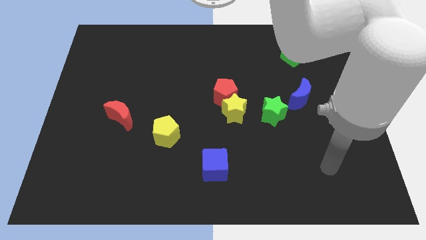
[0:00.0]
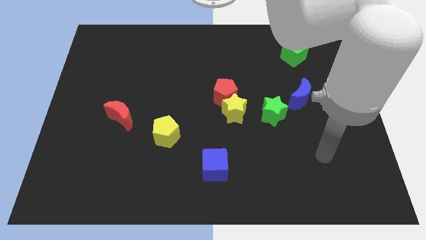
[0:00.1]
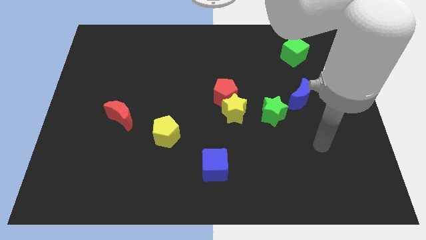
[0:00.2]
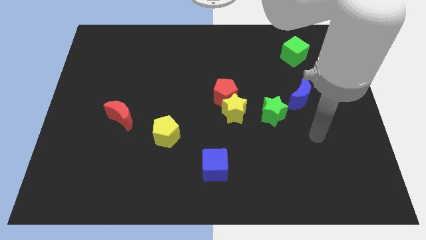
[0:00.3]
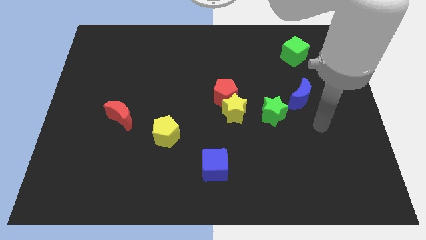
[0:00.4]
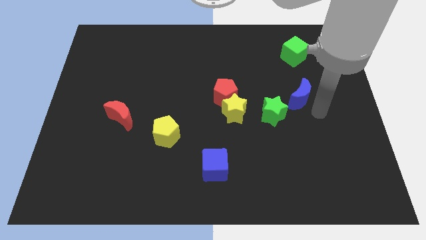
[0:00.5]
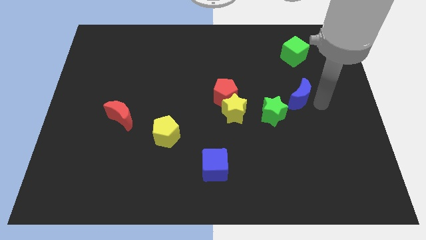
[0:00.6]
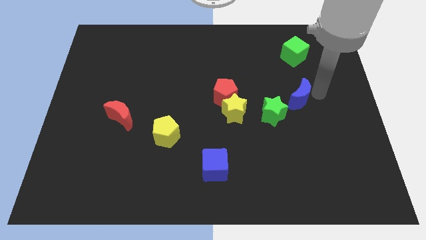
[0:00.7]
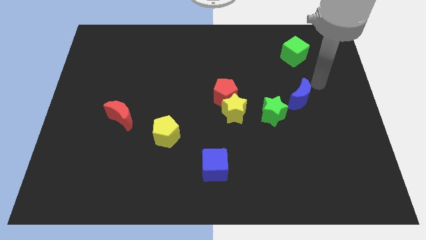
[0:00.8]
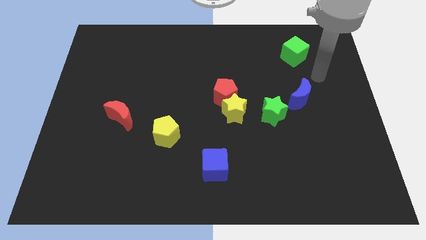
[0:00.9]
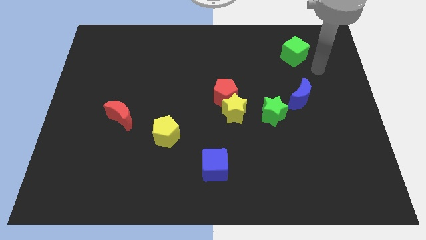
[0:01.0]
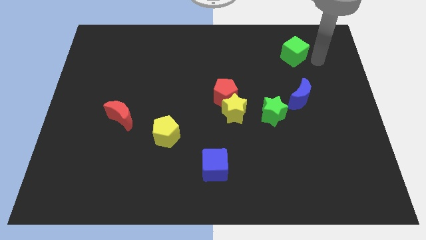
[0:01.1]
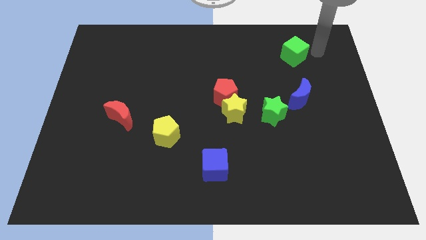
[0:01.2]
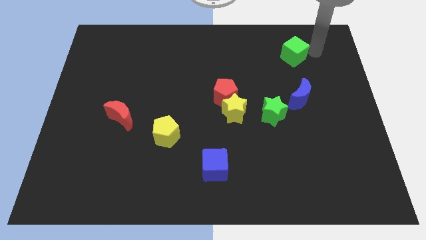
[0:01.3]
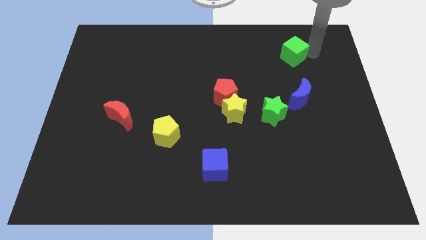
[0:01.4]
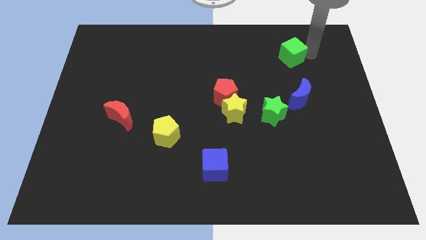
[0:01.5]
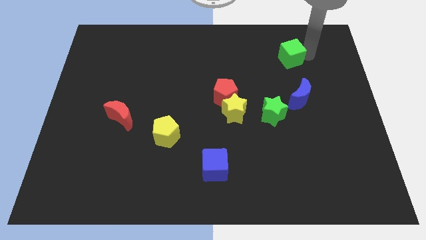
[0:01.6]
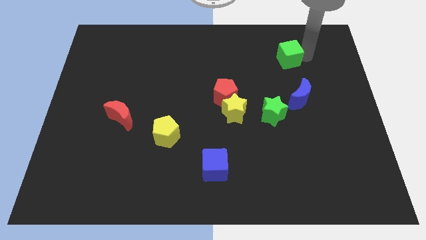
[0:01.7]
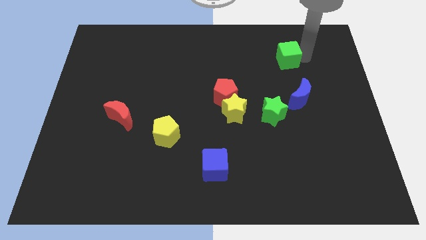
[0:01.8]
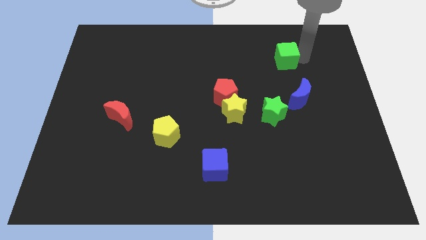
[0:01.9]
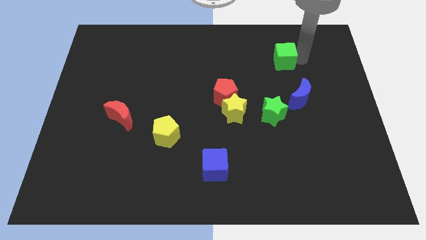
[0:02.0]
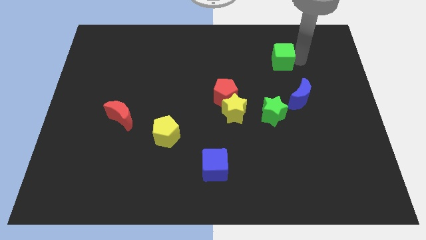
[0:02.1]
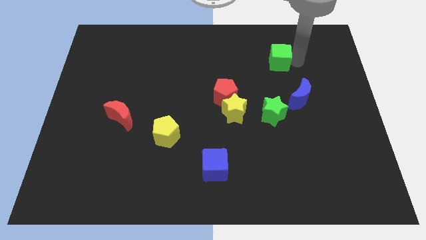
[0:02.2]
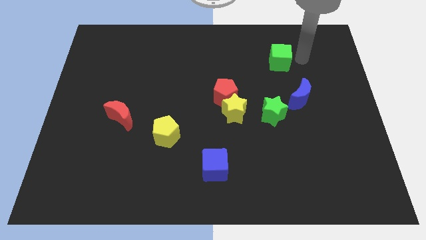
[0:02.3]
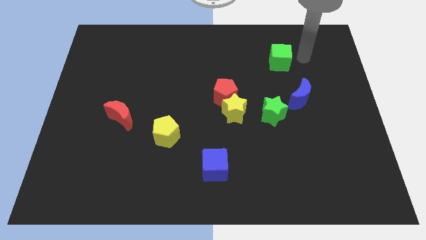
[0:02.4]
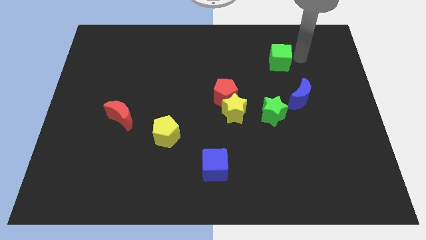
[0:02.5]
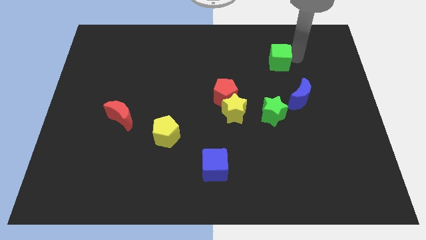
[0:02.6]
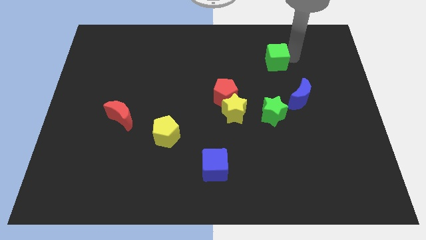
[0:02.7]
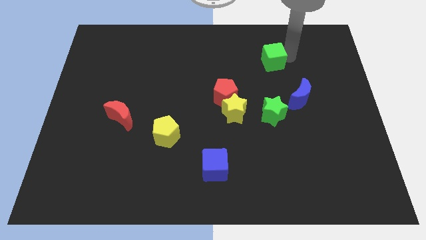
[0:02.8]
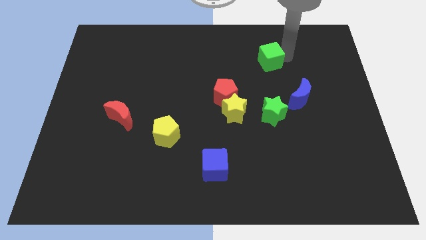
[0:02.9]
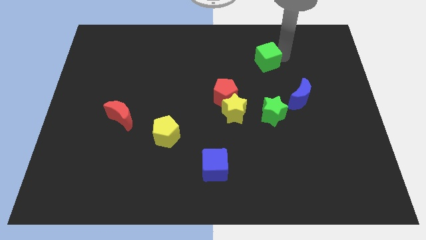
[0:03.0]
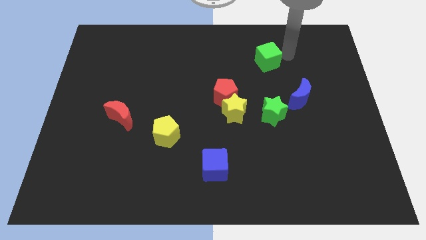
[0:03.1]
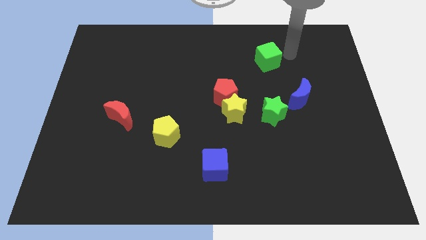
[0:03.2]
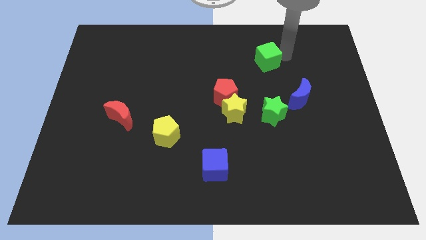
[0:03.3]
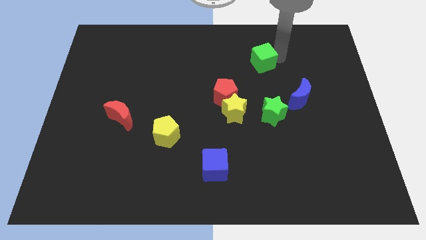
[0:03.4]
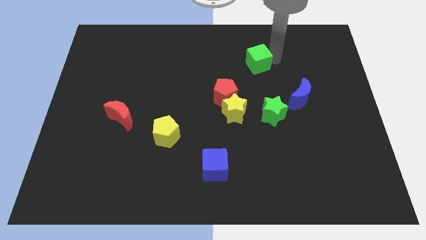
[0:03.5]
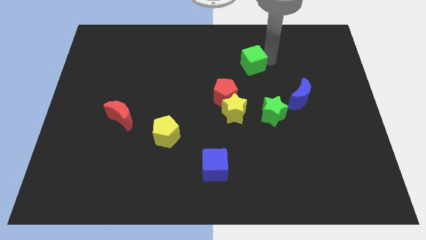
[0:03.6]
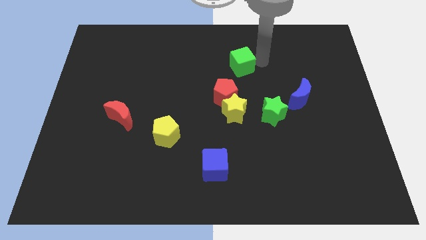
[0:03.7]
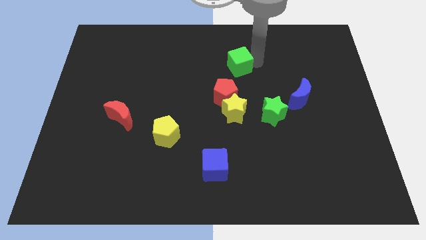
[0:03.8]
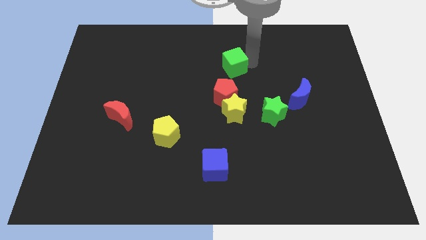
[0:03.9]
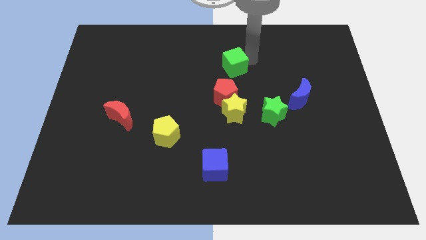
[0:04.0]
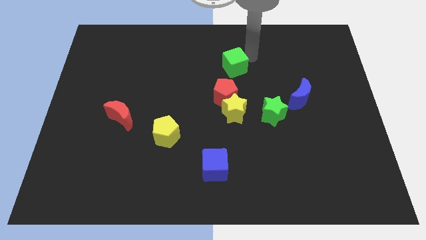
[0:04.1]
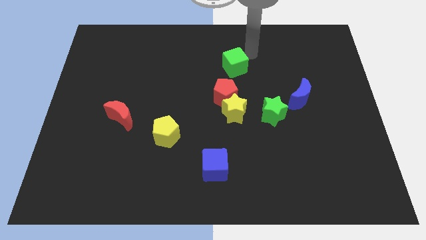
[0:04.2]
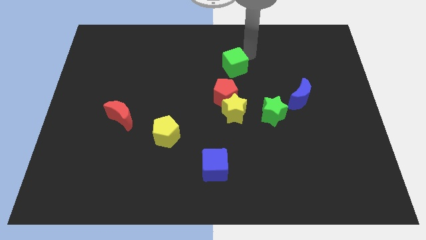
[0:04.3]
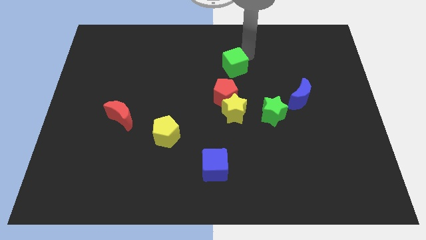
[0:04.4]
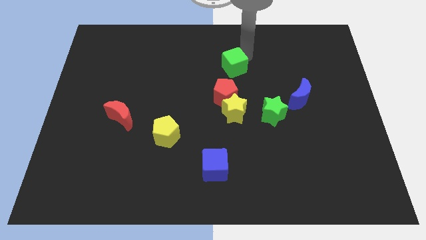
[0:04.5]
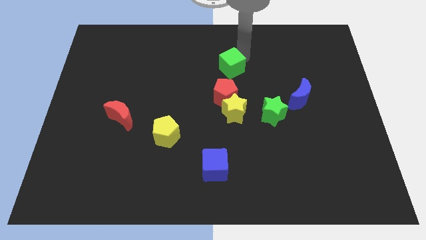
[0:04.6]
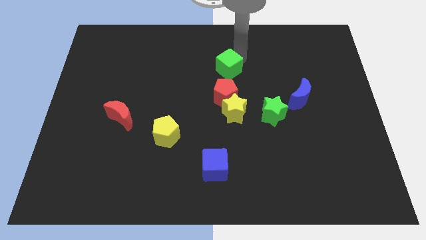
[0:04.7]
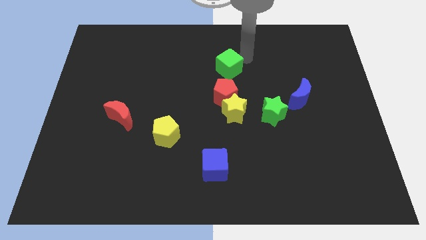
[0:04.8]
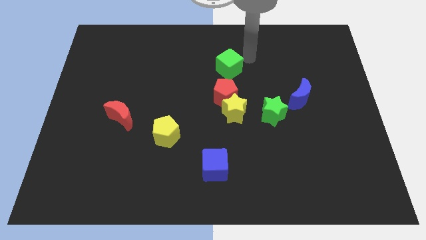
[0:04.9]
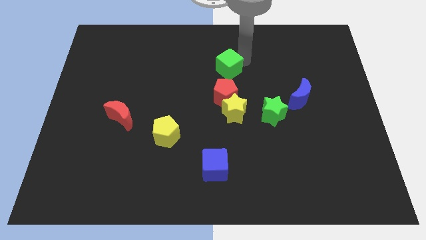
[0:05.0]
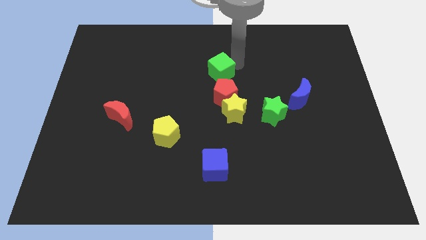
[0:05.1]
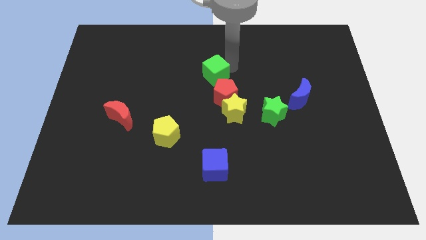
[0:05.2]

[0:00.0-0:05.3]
push the green cube to the top left of the red pentagon

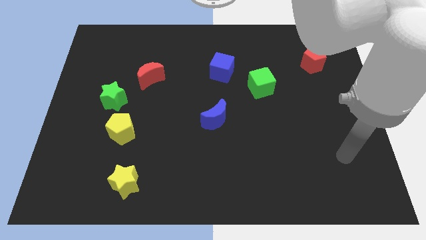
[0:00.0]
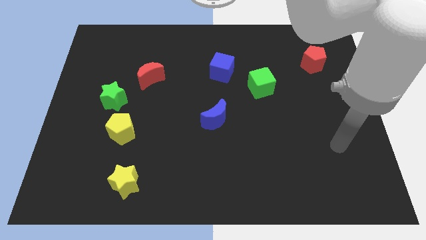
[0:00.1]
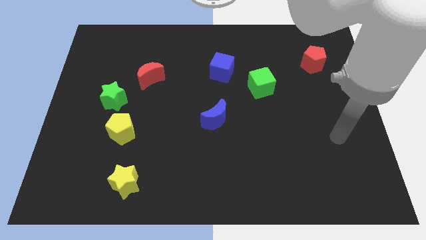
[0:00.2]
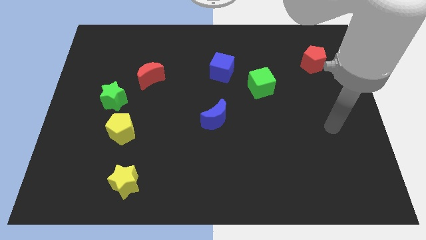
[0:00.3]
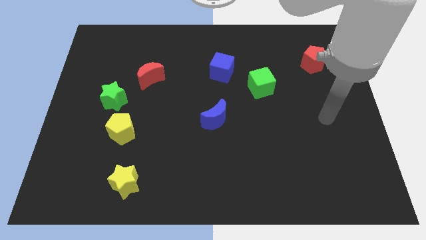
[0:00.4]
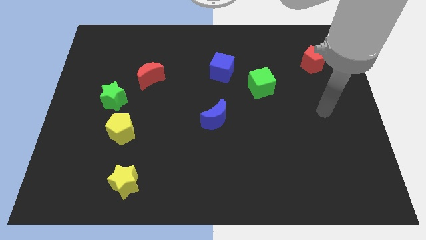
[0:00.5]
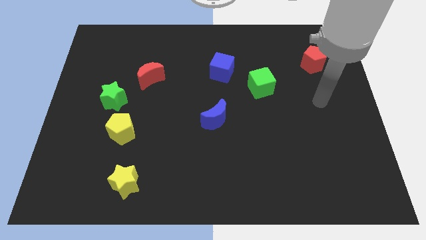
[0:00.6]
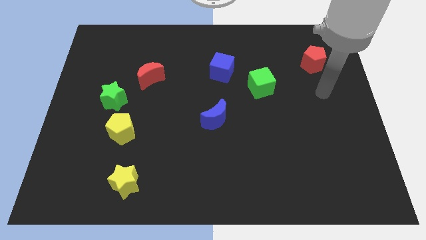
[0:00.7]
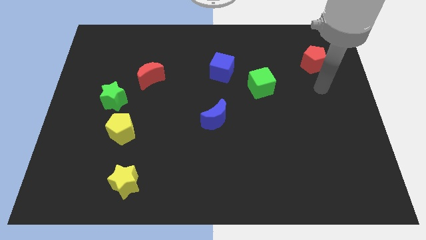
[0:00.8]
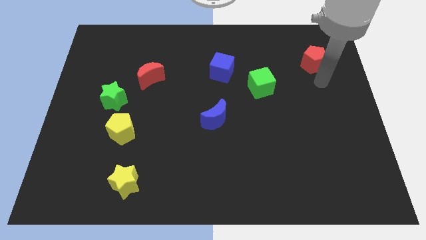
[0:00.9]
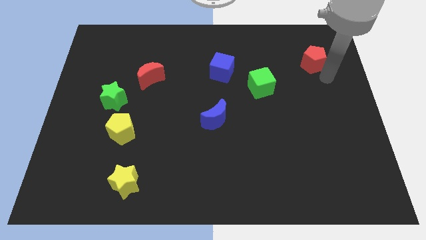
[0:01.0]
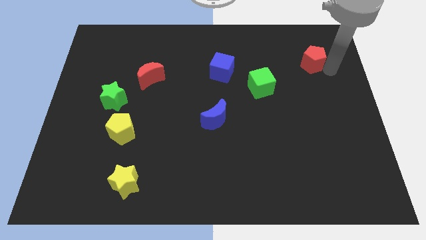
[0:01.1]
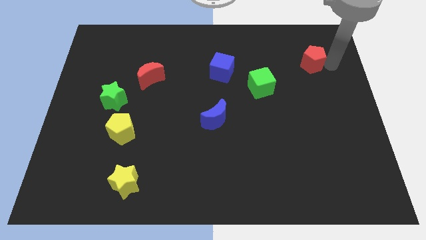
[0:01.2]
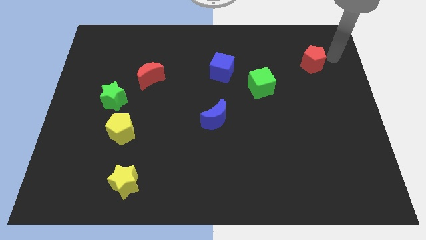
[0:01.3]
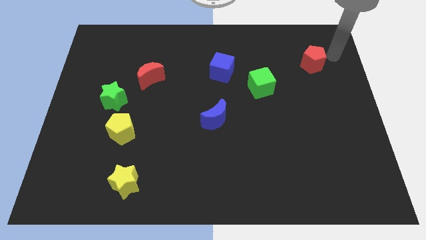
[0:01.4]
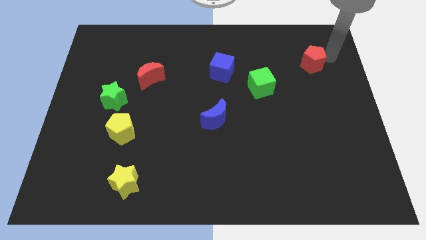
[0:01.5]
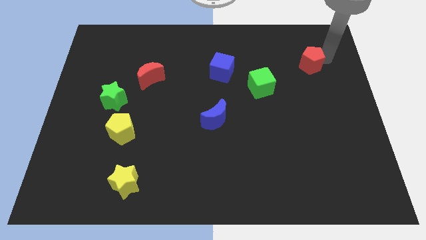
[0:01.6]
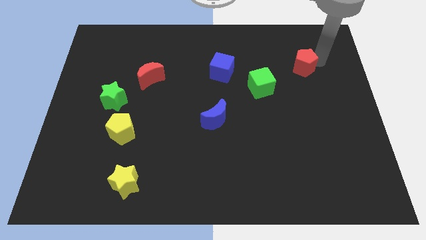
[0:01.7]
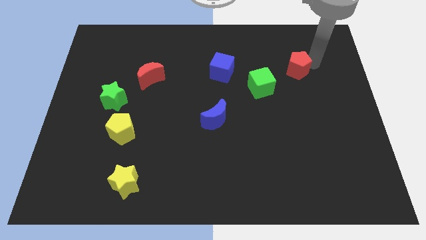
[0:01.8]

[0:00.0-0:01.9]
move the red pentagon diagonally up and to the right of the green cube
